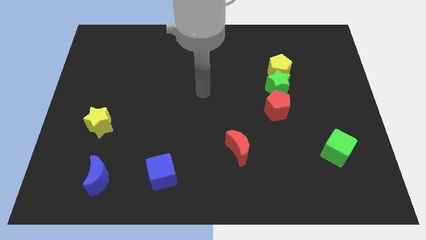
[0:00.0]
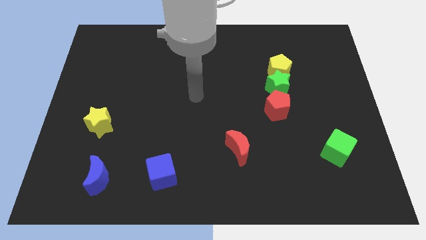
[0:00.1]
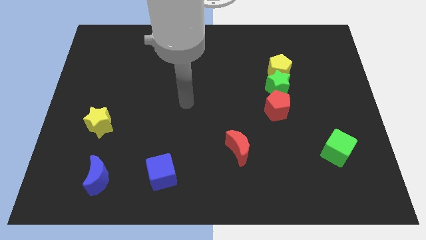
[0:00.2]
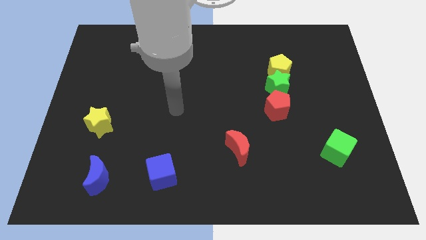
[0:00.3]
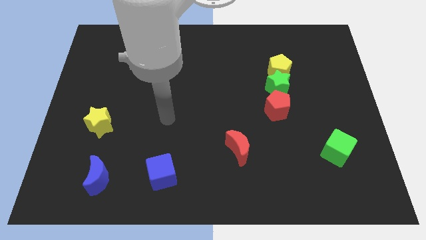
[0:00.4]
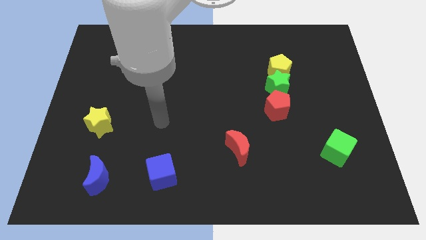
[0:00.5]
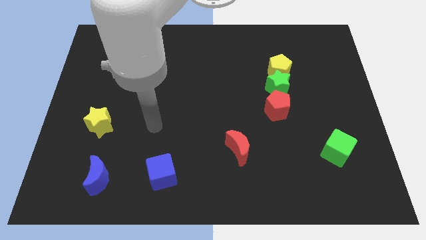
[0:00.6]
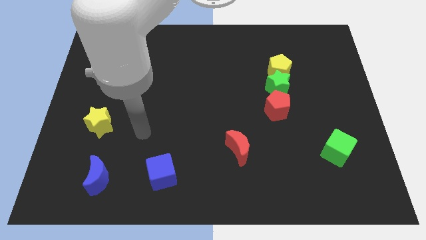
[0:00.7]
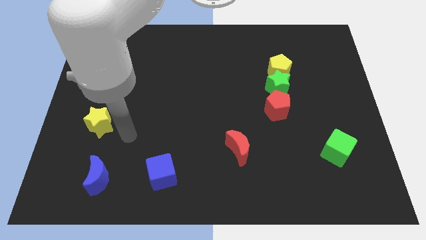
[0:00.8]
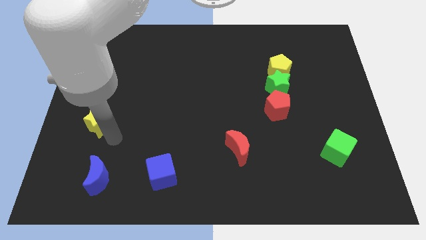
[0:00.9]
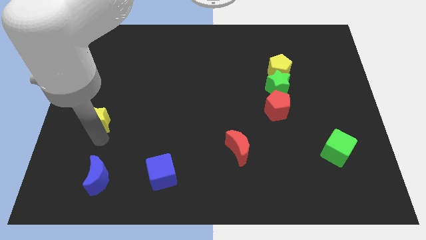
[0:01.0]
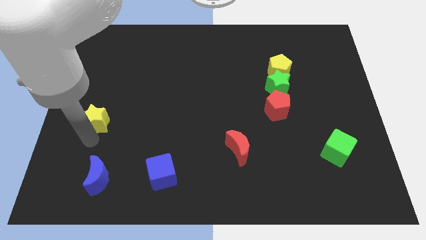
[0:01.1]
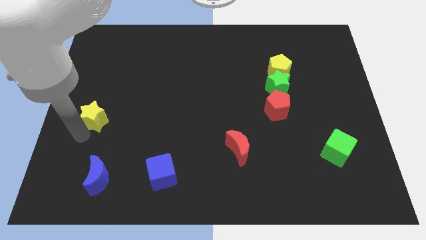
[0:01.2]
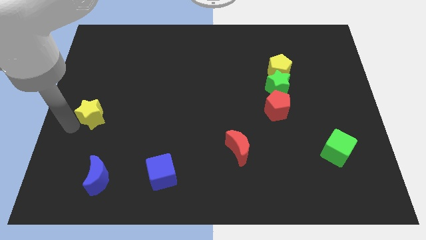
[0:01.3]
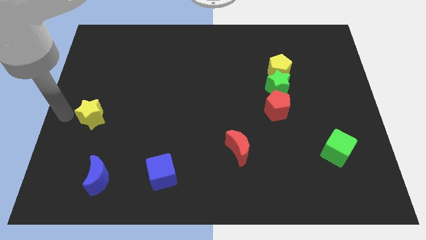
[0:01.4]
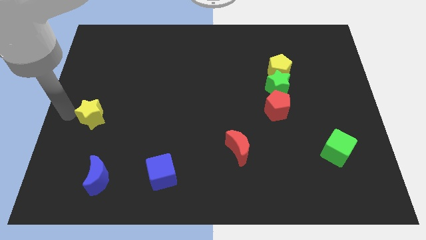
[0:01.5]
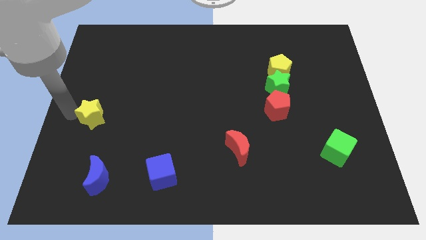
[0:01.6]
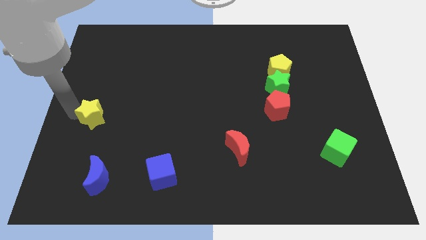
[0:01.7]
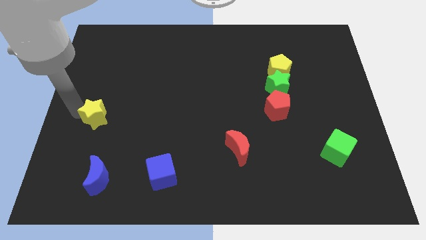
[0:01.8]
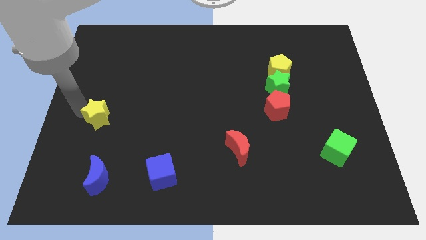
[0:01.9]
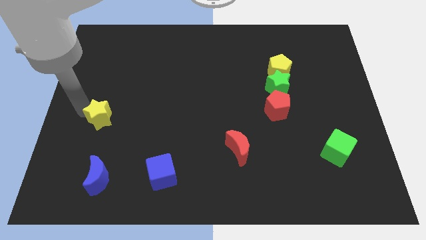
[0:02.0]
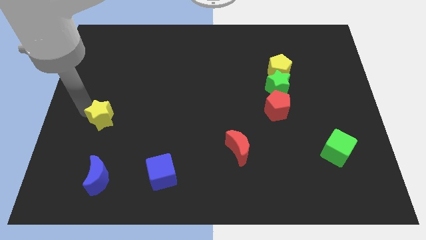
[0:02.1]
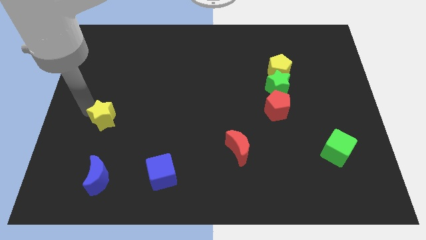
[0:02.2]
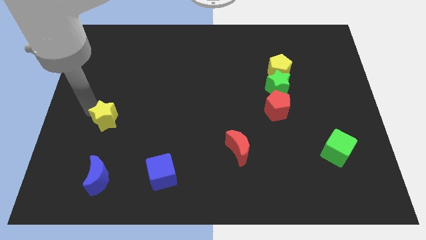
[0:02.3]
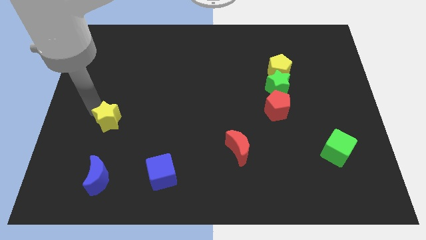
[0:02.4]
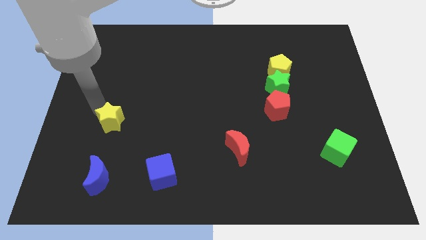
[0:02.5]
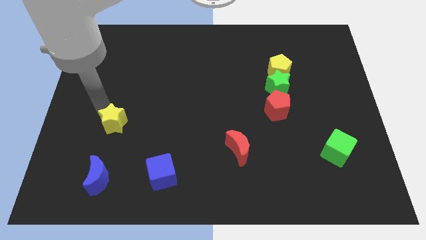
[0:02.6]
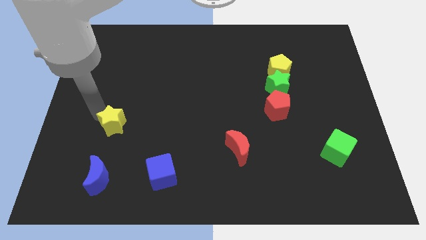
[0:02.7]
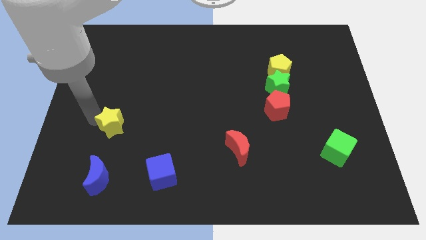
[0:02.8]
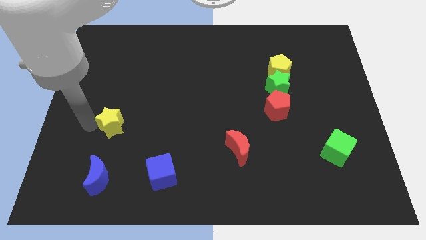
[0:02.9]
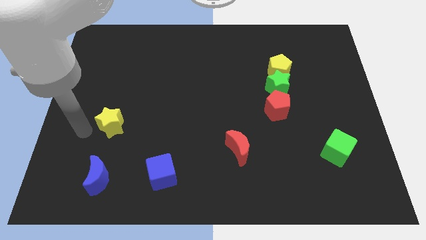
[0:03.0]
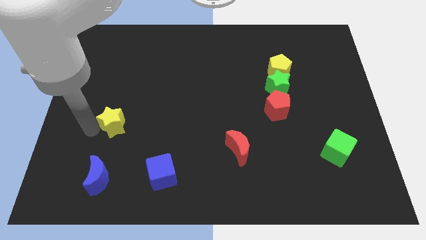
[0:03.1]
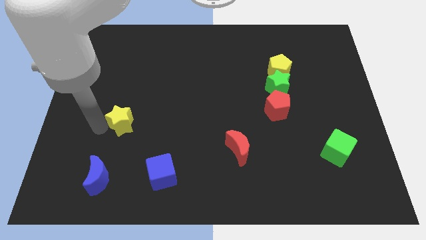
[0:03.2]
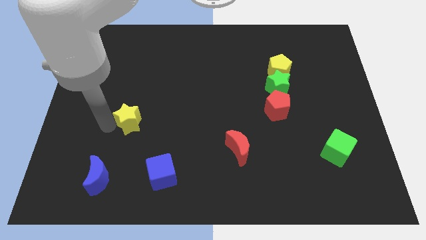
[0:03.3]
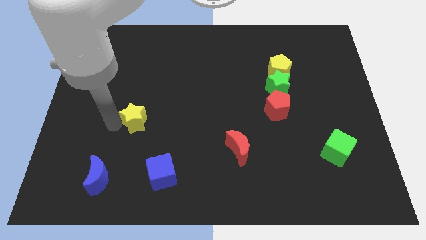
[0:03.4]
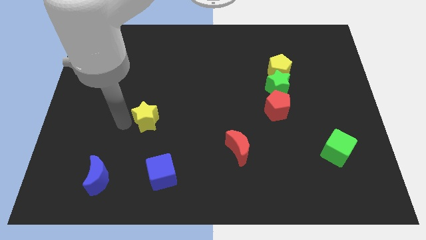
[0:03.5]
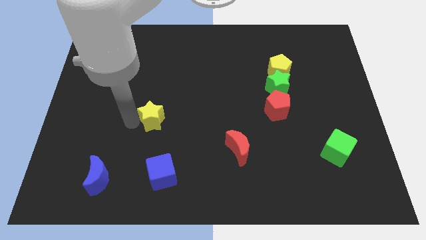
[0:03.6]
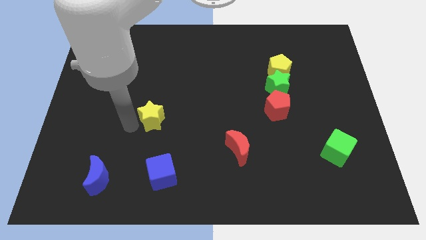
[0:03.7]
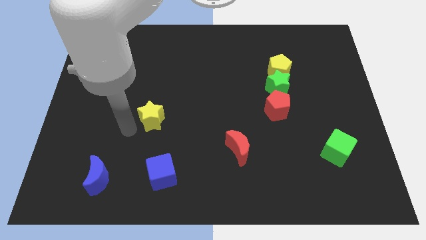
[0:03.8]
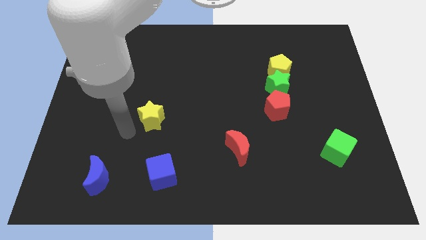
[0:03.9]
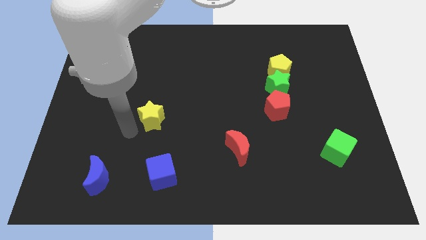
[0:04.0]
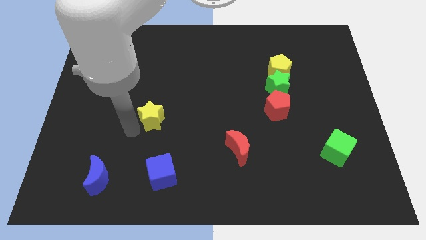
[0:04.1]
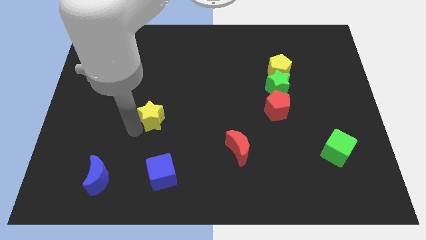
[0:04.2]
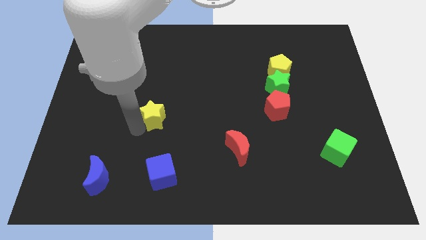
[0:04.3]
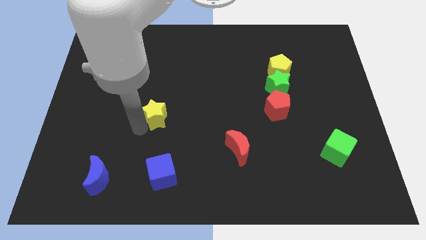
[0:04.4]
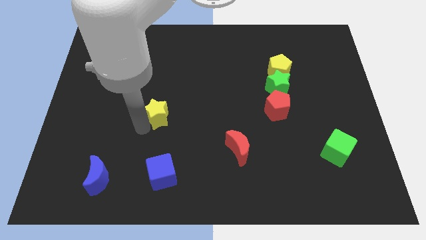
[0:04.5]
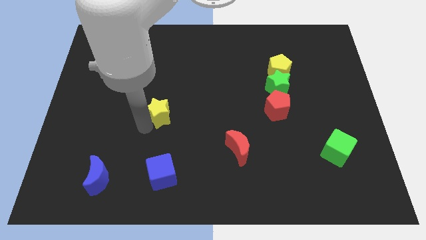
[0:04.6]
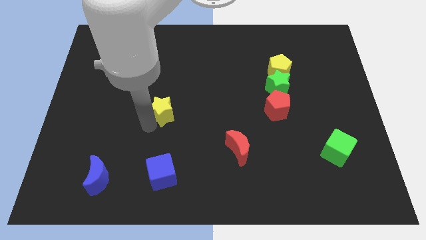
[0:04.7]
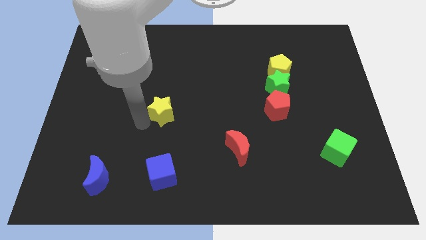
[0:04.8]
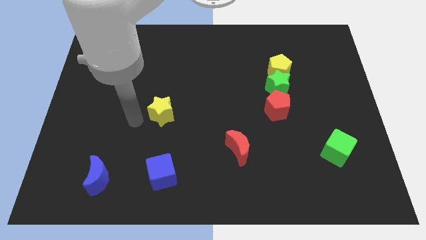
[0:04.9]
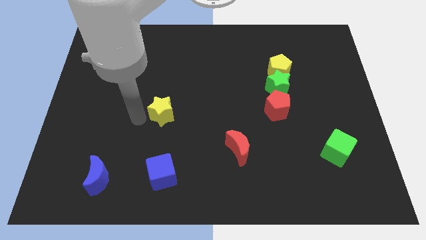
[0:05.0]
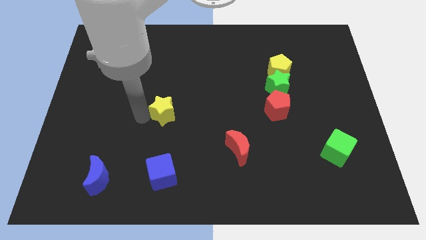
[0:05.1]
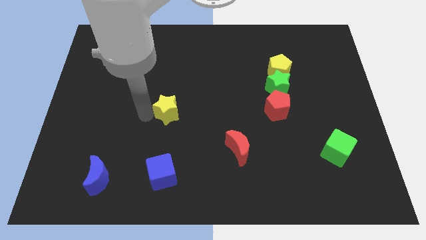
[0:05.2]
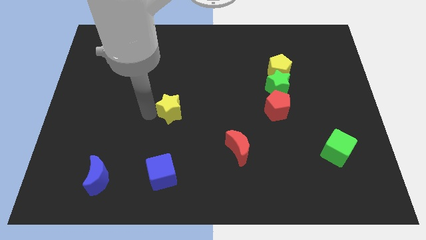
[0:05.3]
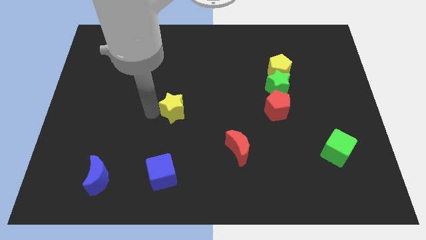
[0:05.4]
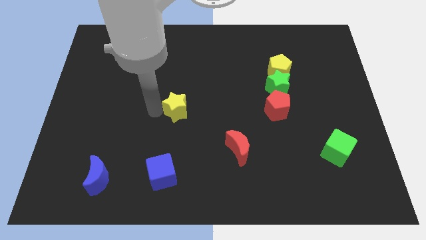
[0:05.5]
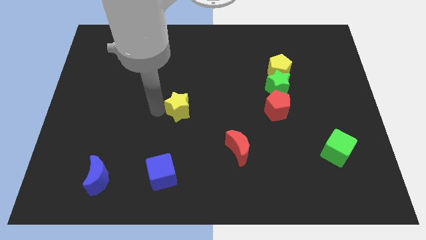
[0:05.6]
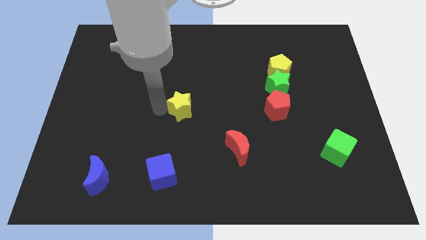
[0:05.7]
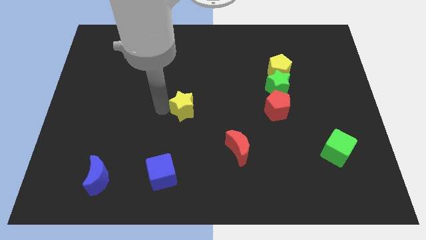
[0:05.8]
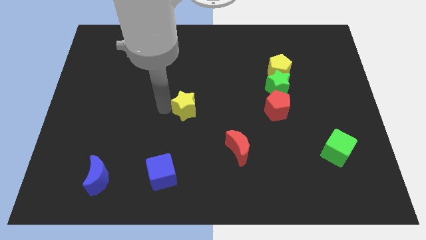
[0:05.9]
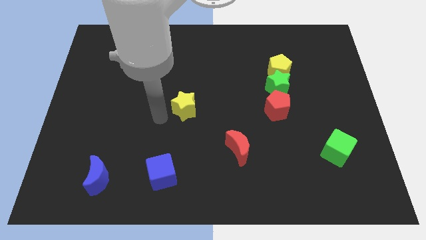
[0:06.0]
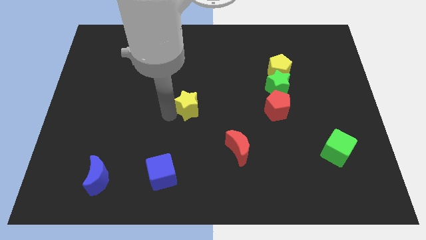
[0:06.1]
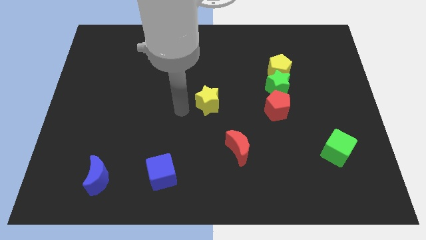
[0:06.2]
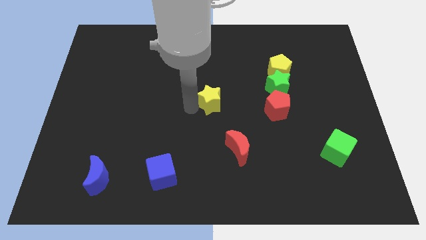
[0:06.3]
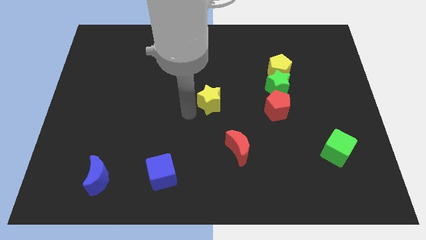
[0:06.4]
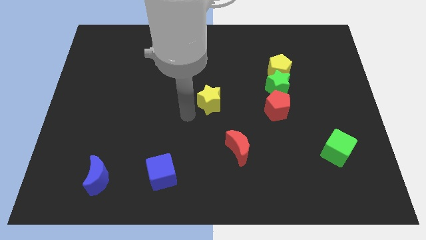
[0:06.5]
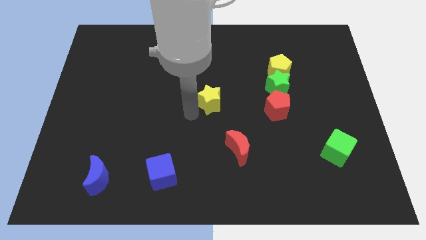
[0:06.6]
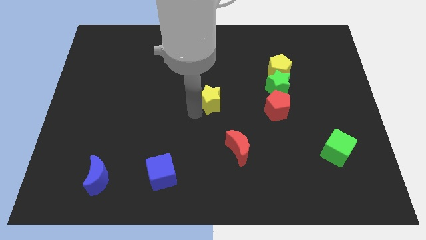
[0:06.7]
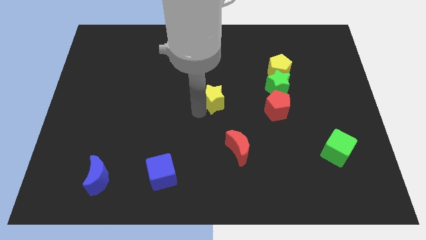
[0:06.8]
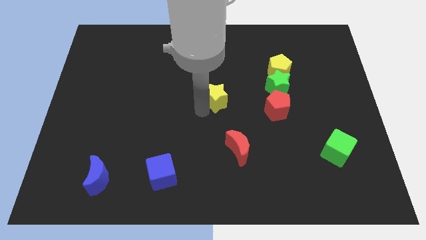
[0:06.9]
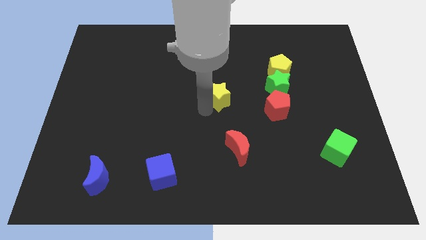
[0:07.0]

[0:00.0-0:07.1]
move the yellow star to the left of the green star
